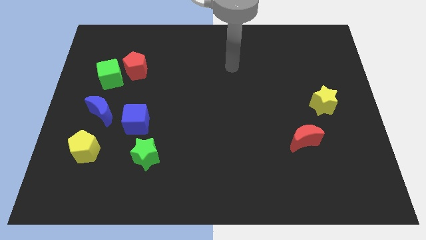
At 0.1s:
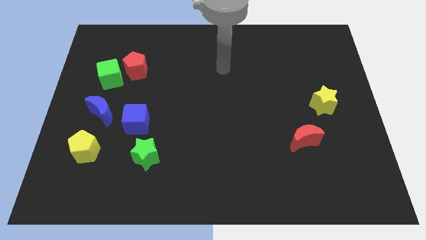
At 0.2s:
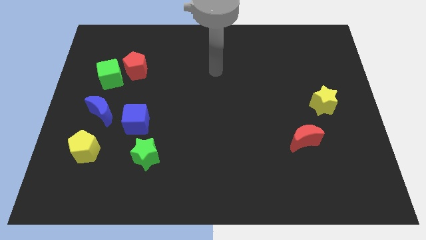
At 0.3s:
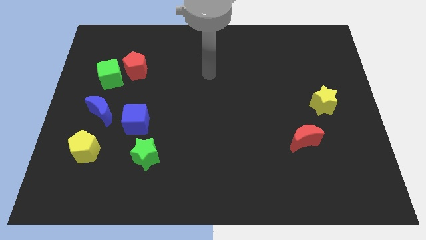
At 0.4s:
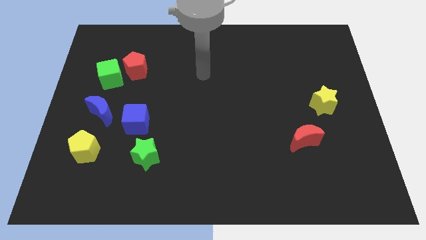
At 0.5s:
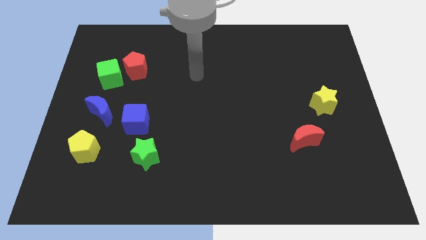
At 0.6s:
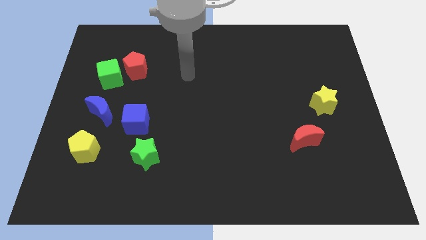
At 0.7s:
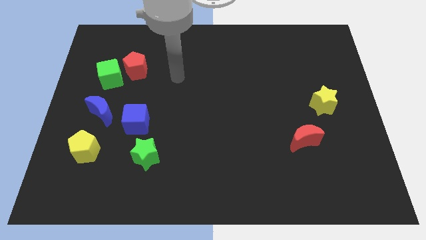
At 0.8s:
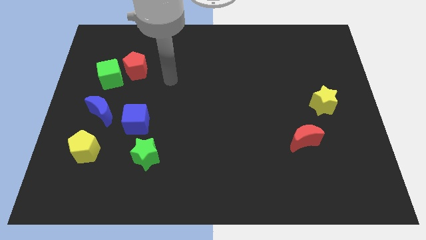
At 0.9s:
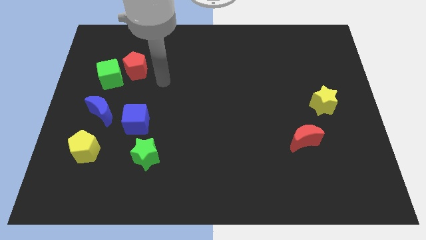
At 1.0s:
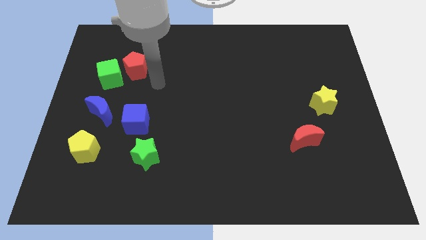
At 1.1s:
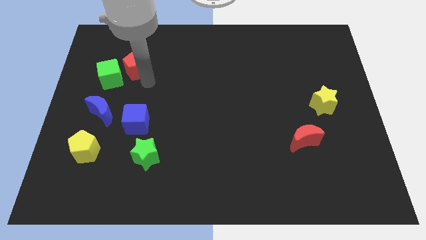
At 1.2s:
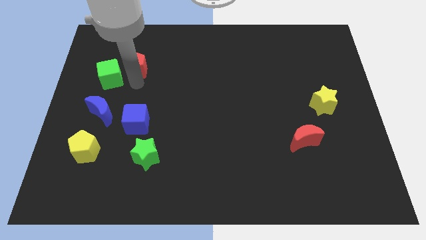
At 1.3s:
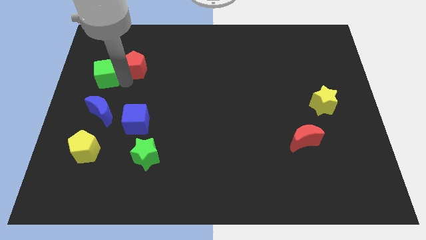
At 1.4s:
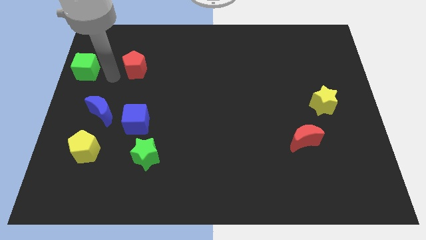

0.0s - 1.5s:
separate the red pentagon from the green cube

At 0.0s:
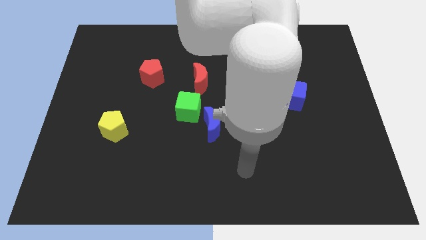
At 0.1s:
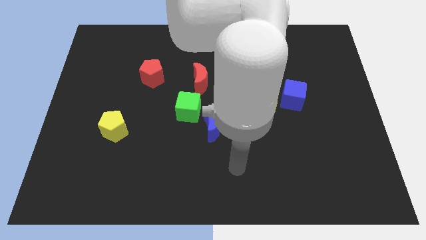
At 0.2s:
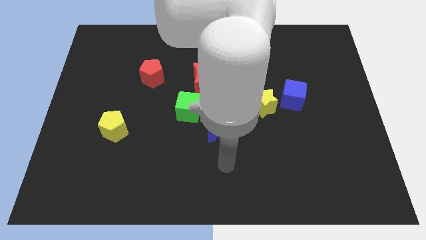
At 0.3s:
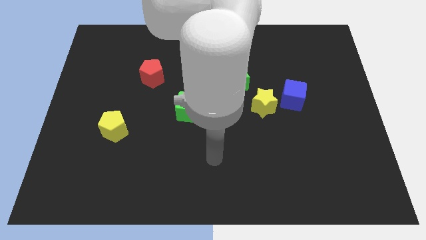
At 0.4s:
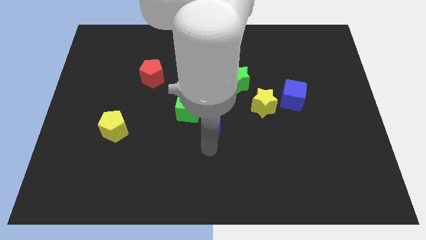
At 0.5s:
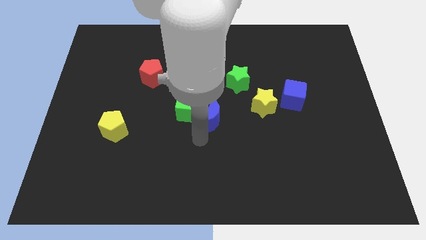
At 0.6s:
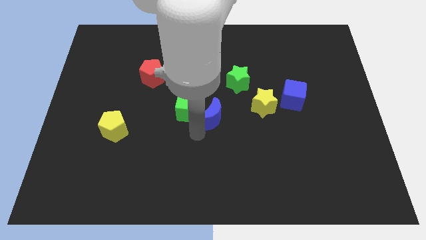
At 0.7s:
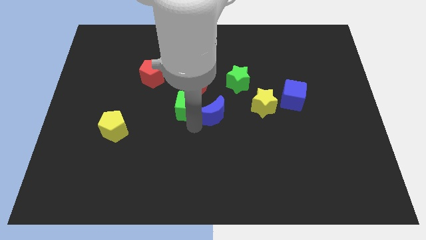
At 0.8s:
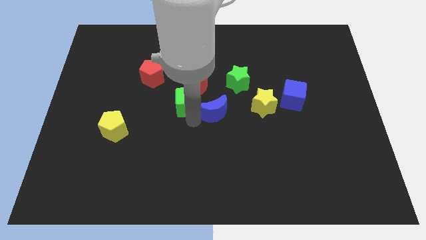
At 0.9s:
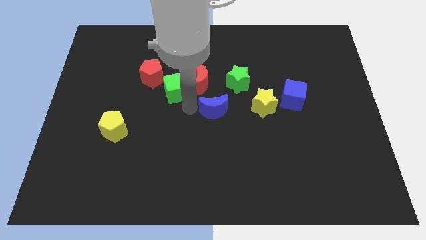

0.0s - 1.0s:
move the blue moon away from the green cube

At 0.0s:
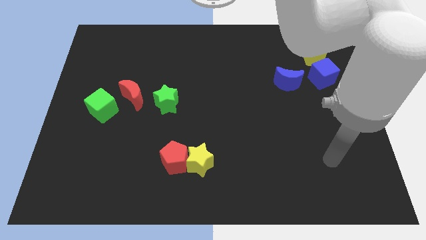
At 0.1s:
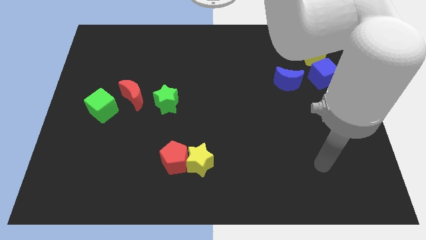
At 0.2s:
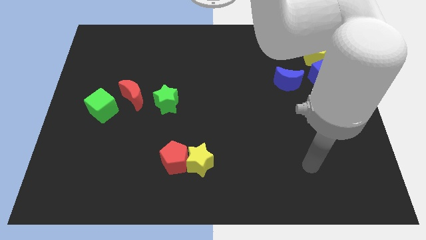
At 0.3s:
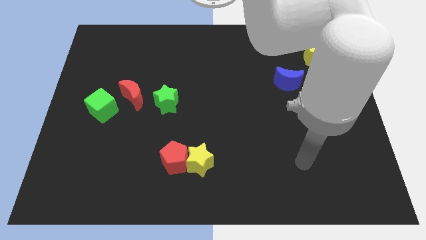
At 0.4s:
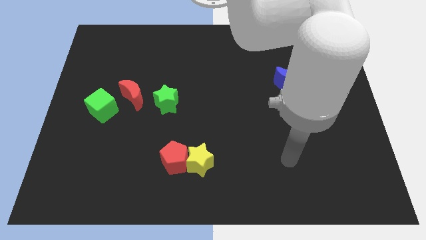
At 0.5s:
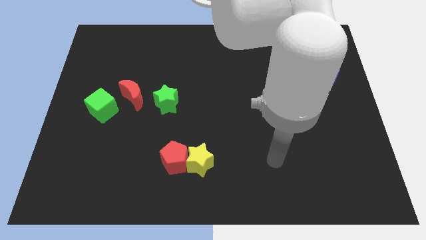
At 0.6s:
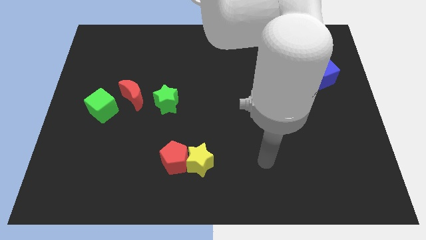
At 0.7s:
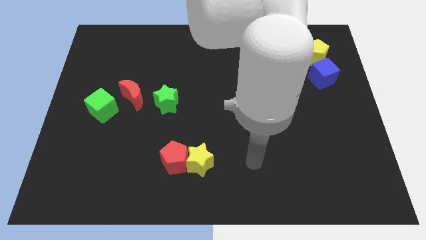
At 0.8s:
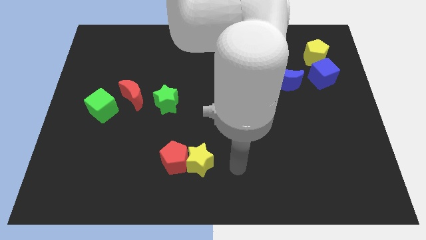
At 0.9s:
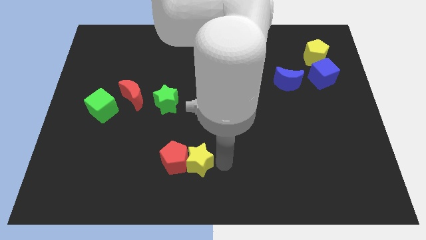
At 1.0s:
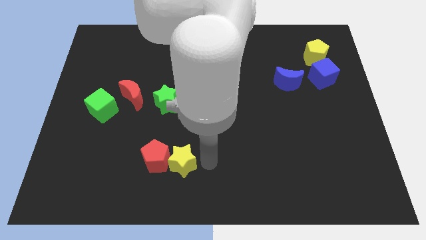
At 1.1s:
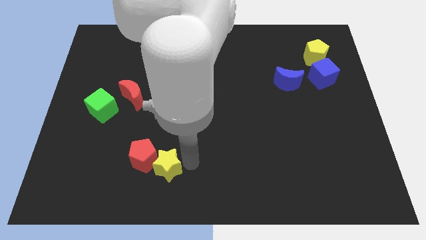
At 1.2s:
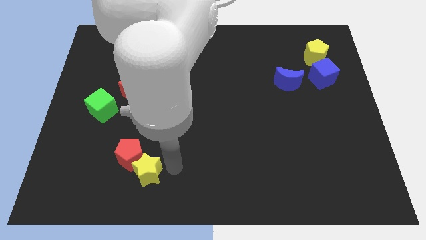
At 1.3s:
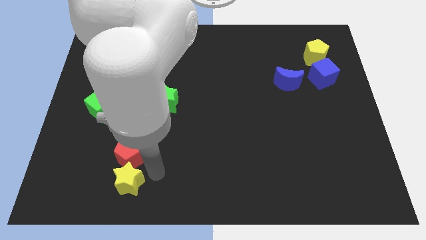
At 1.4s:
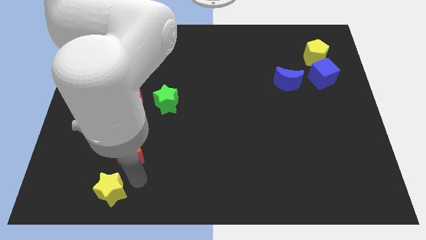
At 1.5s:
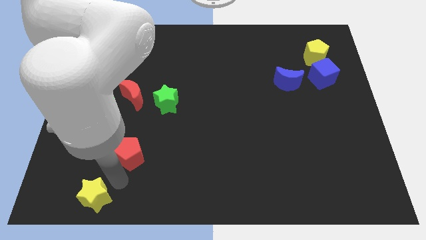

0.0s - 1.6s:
move the red pentagon away from the yellow star

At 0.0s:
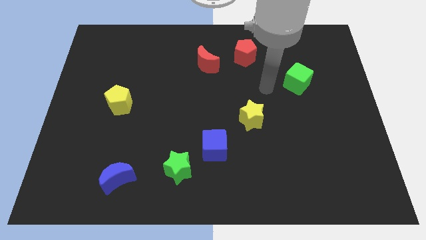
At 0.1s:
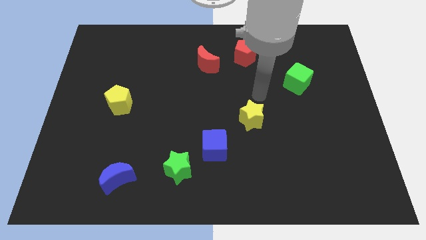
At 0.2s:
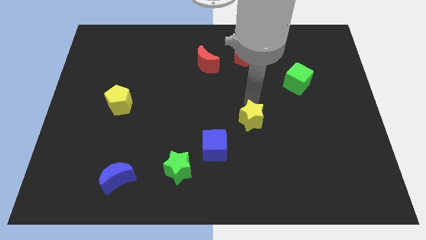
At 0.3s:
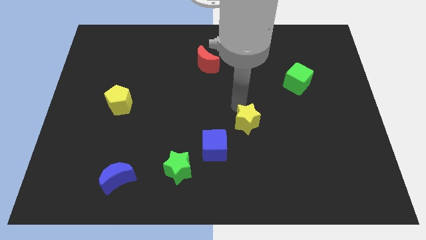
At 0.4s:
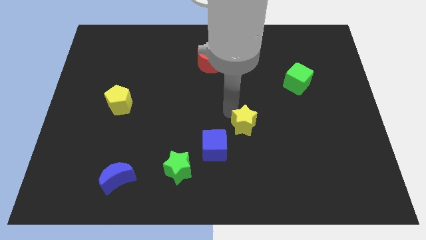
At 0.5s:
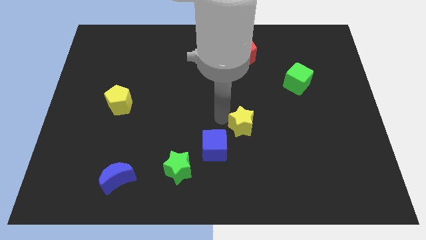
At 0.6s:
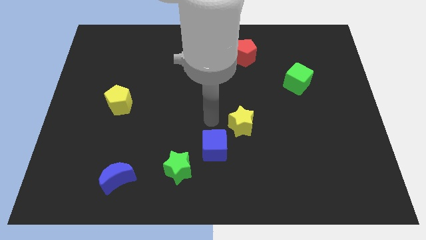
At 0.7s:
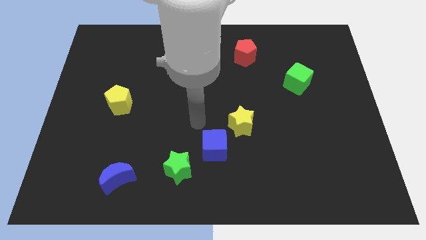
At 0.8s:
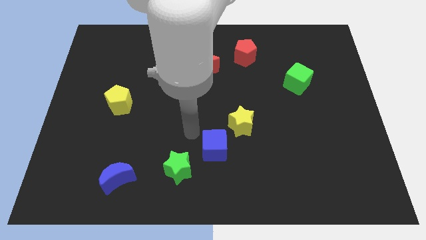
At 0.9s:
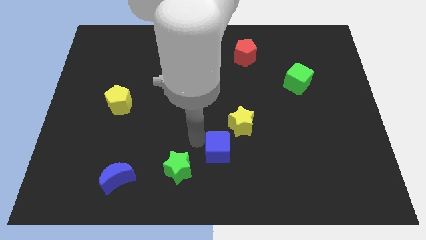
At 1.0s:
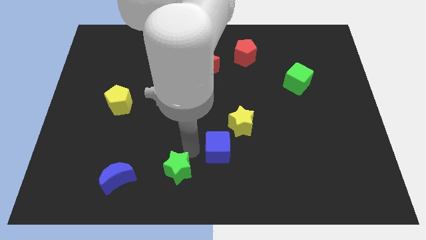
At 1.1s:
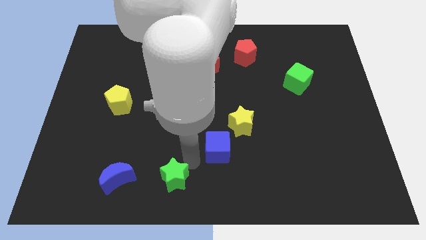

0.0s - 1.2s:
move the blue cube away from the green star

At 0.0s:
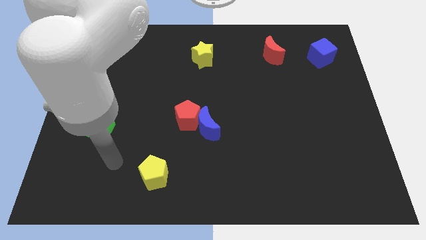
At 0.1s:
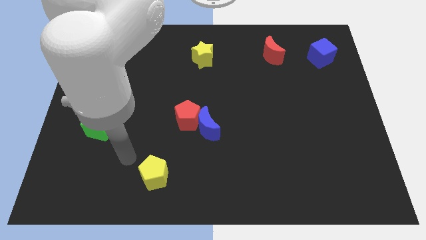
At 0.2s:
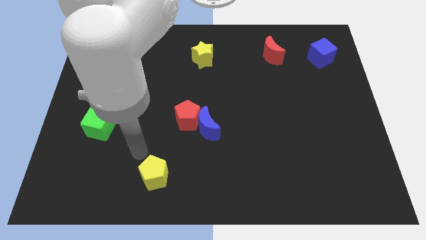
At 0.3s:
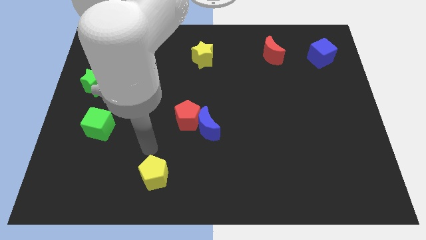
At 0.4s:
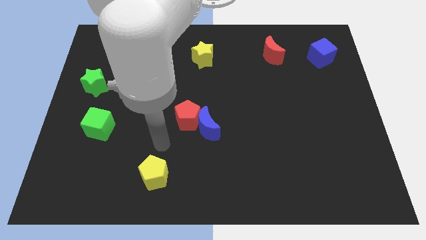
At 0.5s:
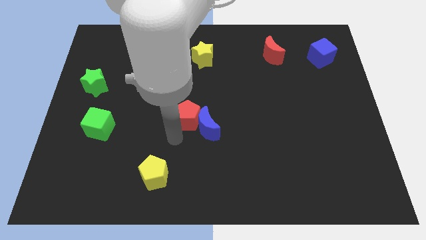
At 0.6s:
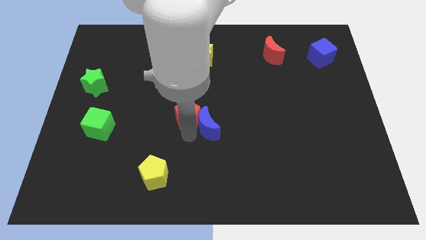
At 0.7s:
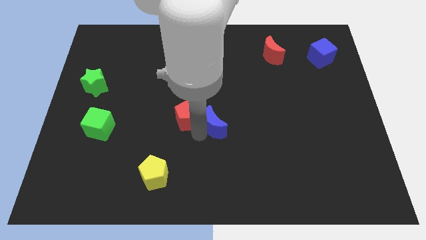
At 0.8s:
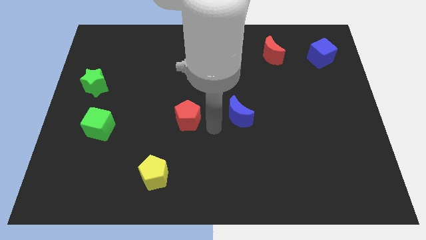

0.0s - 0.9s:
move the red pentagon away from the blue moon

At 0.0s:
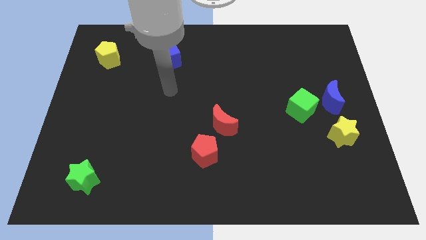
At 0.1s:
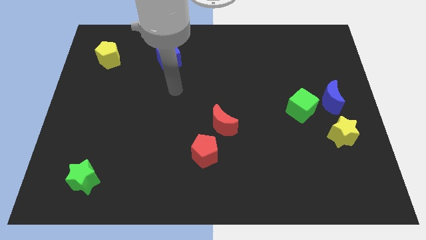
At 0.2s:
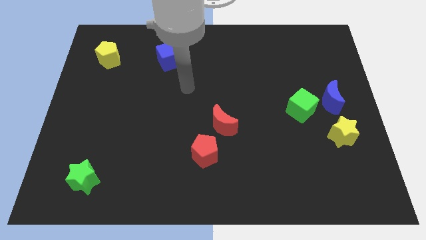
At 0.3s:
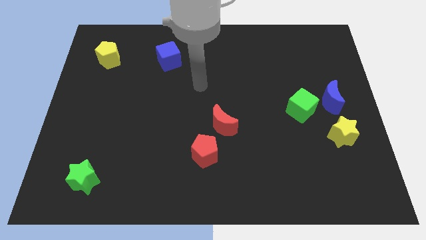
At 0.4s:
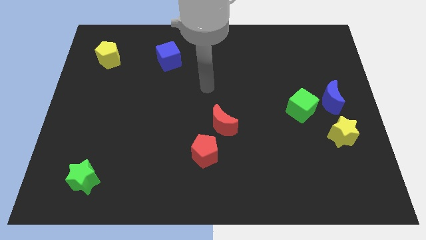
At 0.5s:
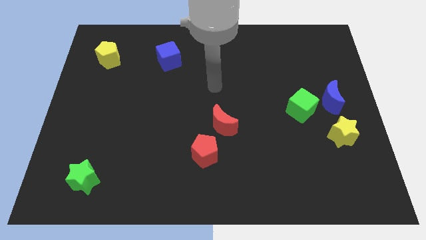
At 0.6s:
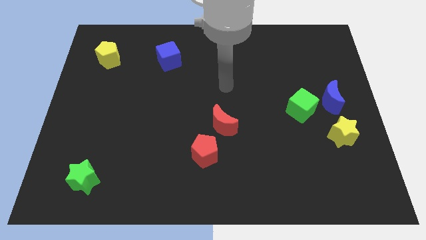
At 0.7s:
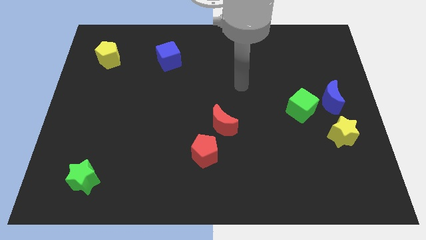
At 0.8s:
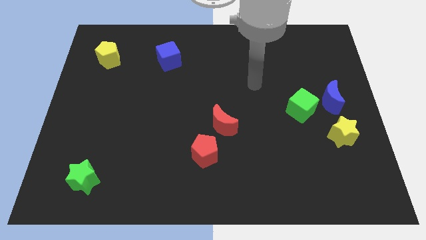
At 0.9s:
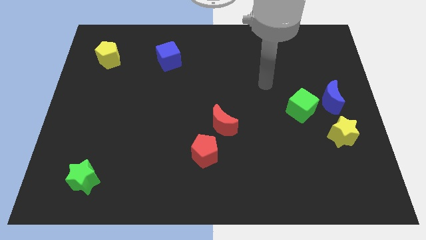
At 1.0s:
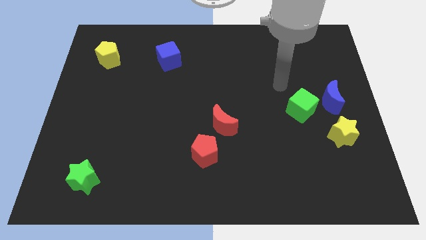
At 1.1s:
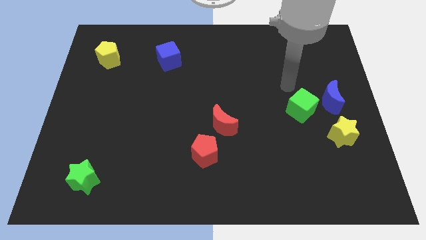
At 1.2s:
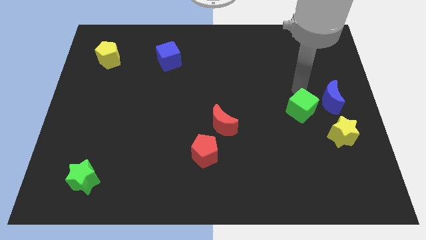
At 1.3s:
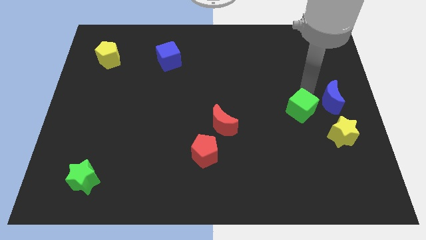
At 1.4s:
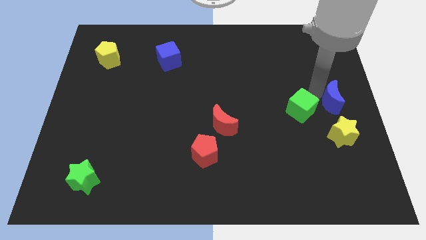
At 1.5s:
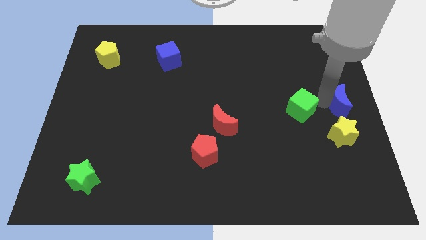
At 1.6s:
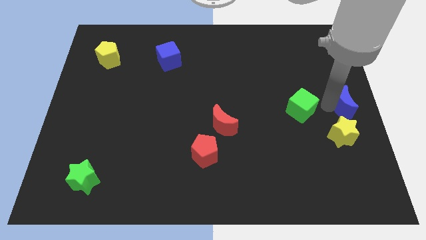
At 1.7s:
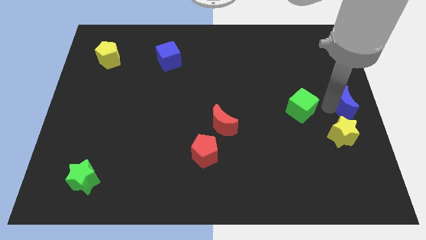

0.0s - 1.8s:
move the green cube away from the blue moon

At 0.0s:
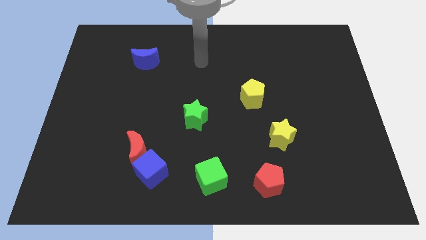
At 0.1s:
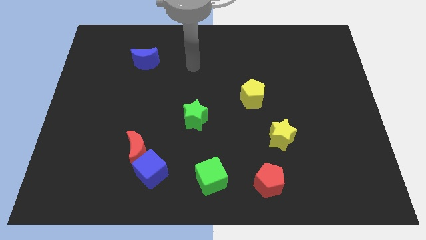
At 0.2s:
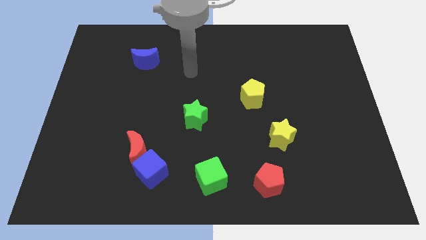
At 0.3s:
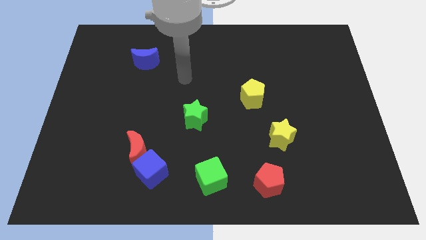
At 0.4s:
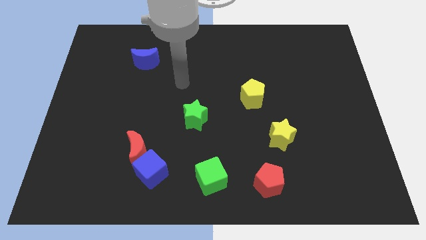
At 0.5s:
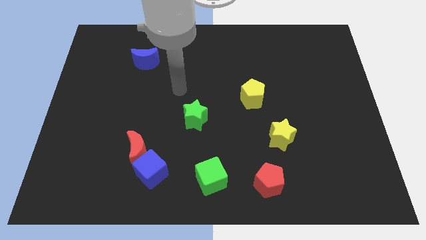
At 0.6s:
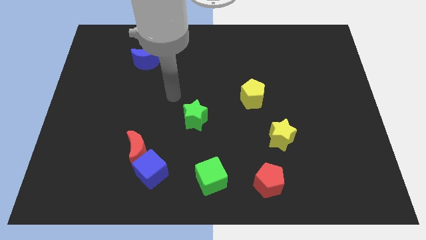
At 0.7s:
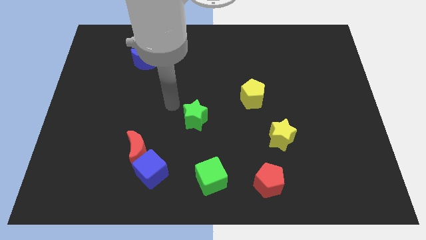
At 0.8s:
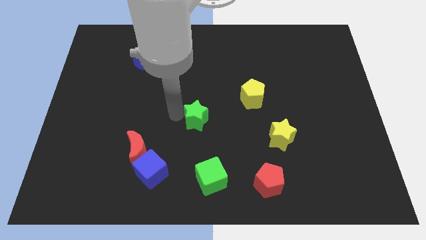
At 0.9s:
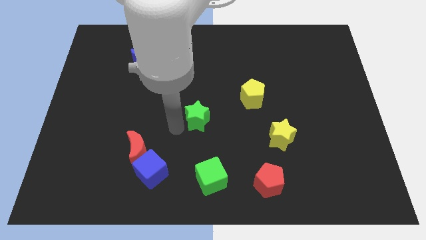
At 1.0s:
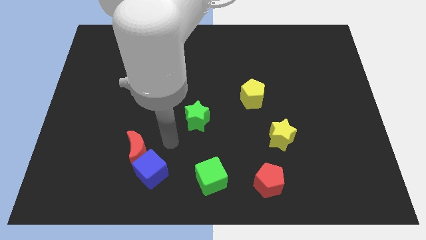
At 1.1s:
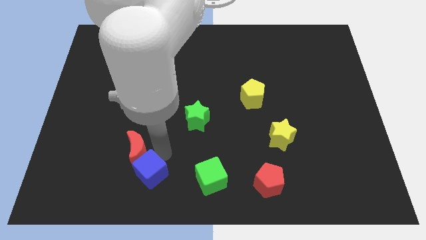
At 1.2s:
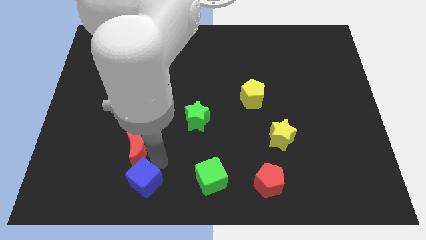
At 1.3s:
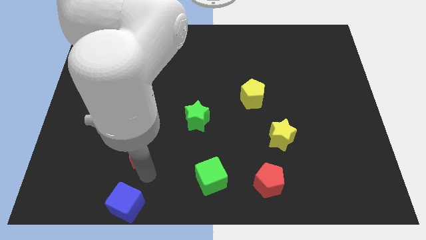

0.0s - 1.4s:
pull the red moon apart from the blue cube

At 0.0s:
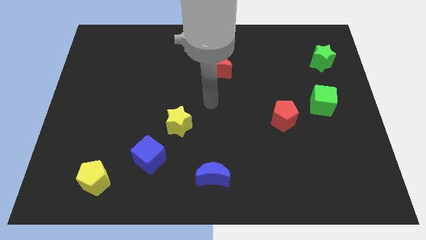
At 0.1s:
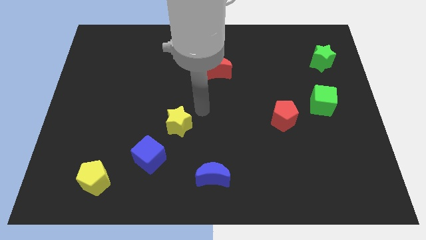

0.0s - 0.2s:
separate the blue cube from the yellow star
